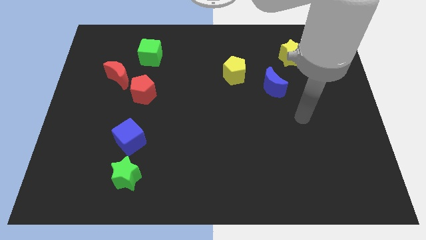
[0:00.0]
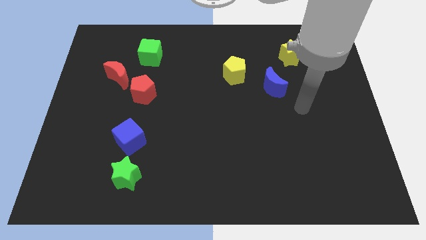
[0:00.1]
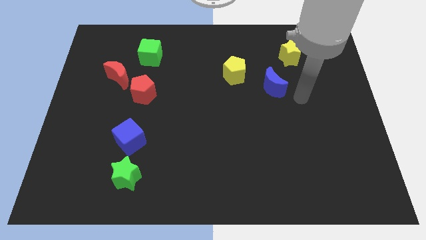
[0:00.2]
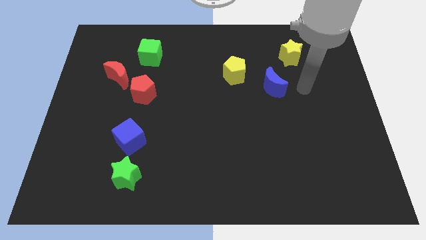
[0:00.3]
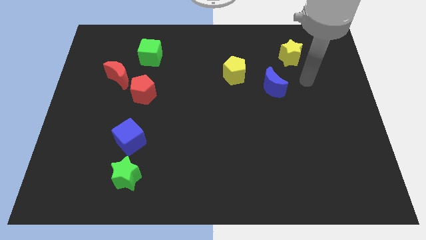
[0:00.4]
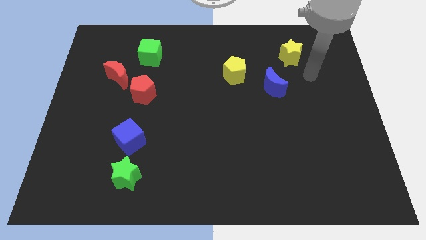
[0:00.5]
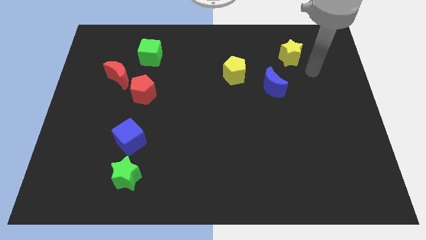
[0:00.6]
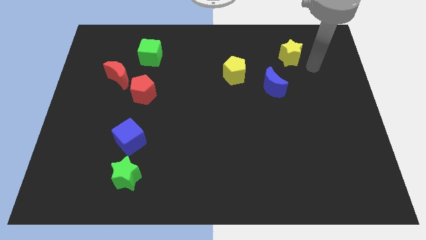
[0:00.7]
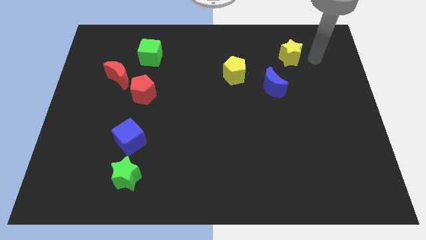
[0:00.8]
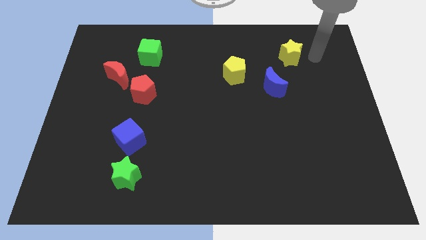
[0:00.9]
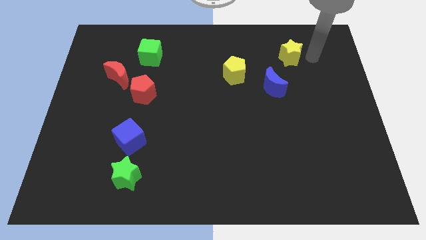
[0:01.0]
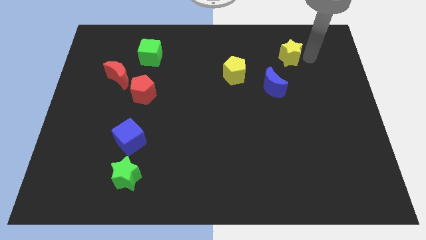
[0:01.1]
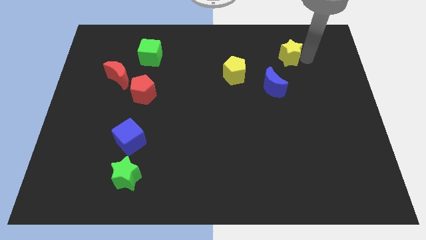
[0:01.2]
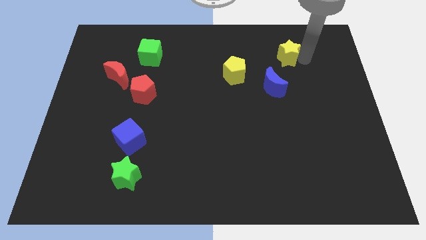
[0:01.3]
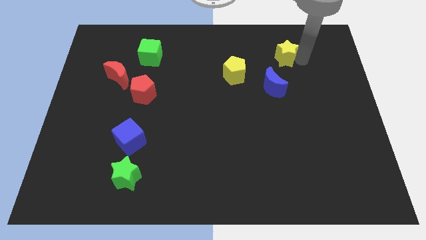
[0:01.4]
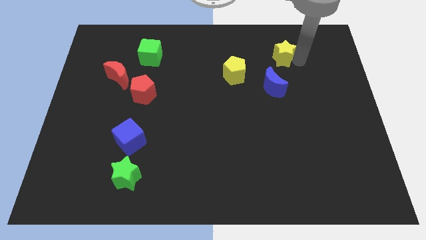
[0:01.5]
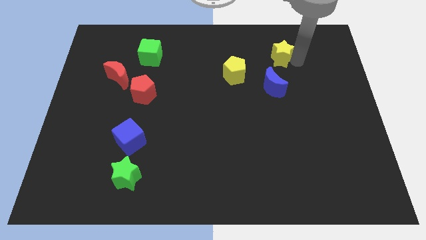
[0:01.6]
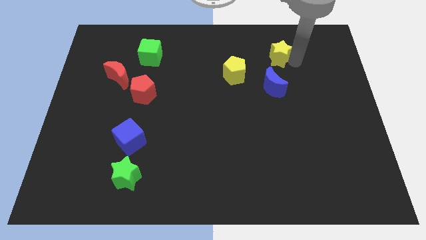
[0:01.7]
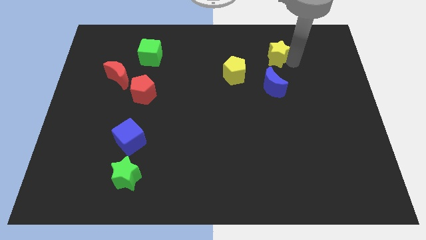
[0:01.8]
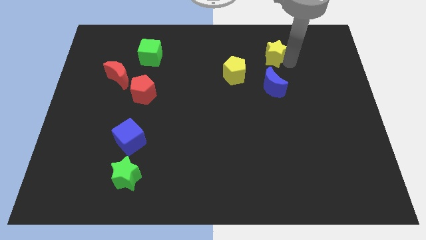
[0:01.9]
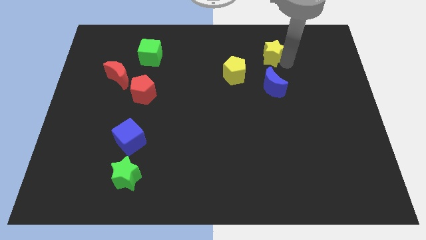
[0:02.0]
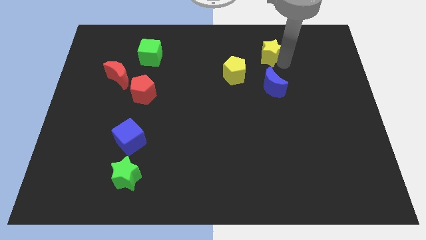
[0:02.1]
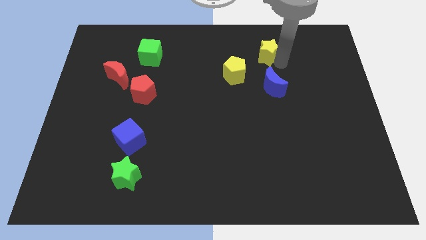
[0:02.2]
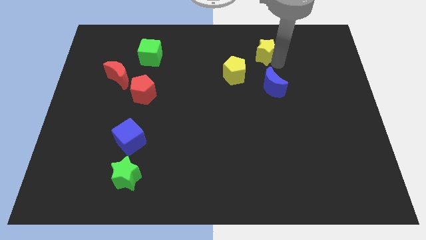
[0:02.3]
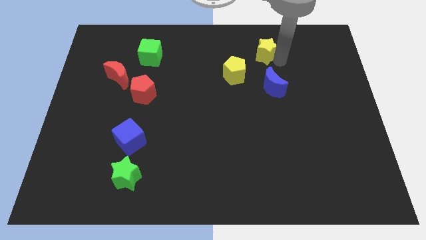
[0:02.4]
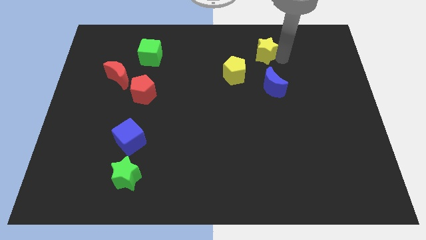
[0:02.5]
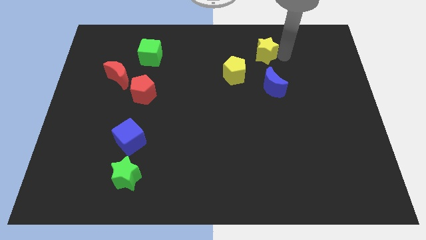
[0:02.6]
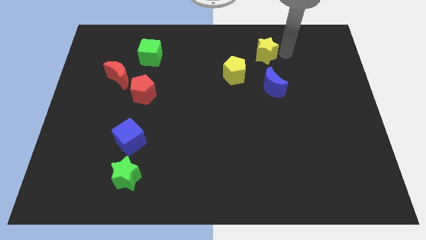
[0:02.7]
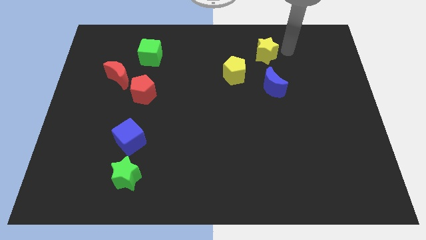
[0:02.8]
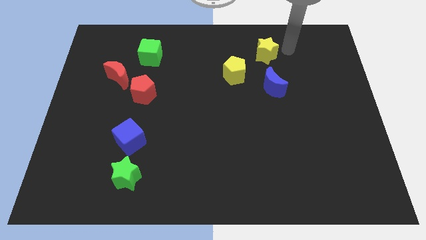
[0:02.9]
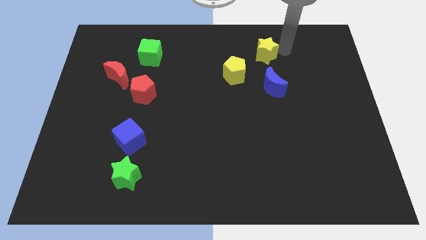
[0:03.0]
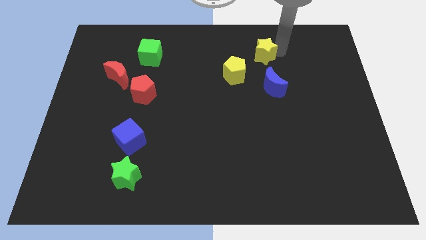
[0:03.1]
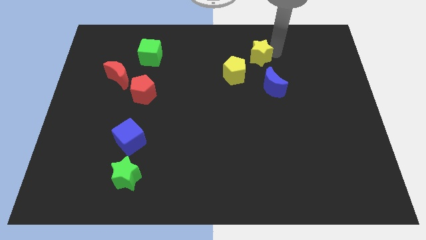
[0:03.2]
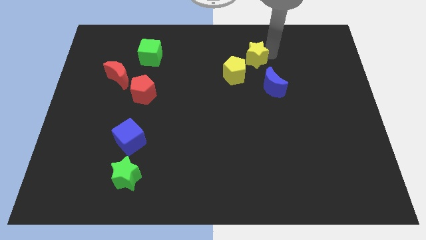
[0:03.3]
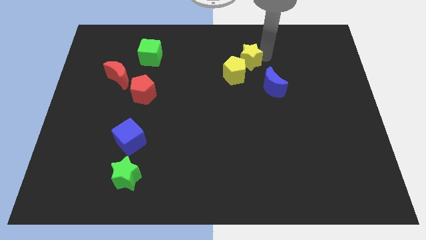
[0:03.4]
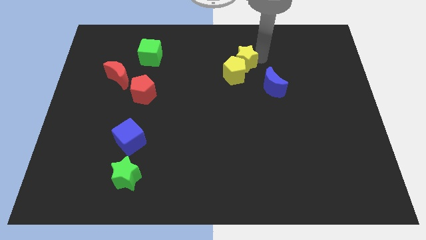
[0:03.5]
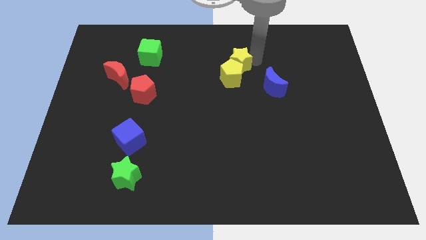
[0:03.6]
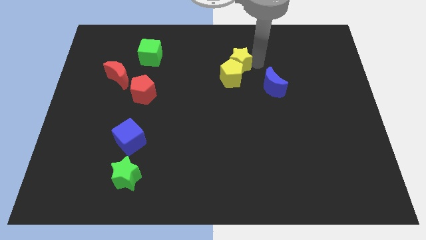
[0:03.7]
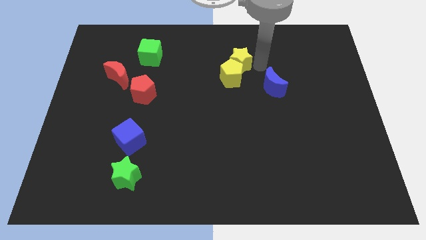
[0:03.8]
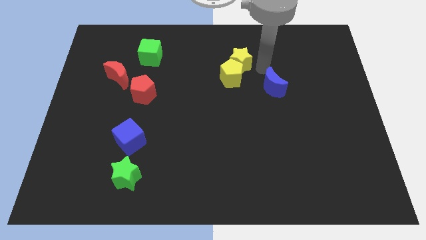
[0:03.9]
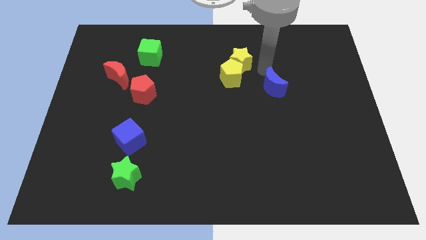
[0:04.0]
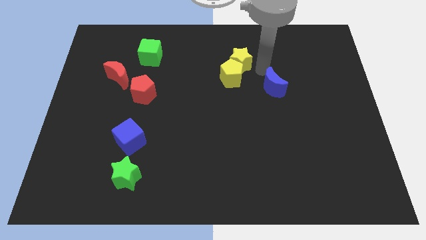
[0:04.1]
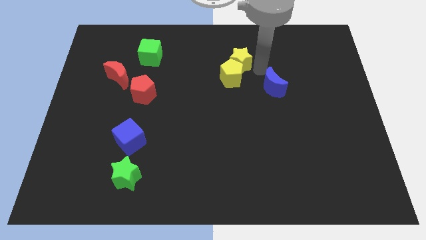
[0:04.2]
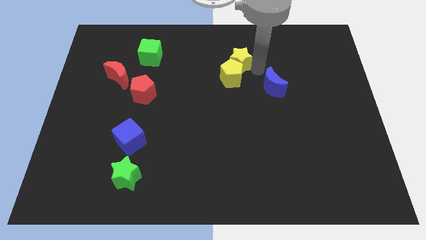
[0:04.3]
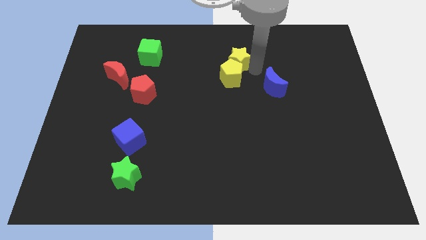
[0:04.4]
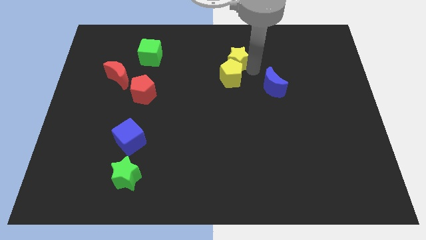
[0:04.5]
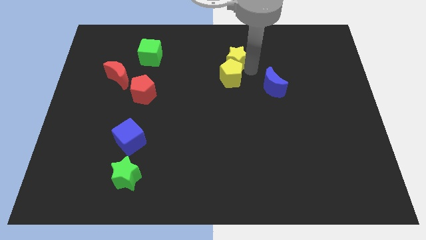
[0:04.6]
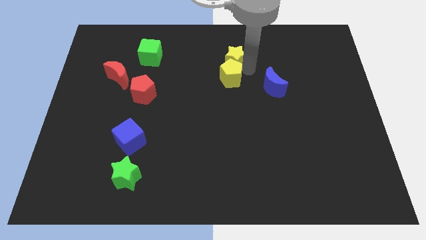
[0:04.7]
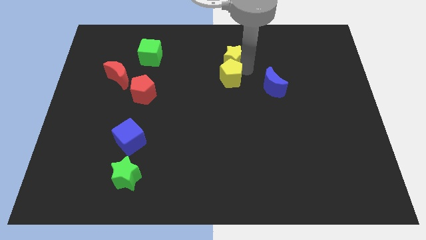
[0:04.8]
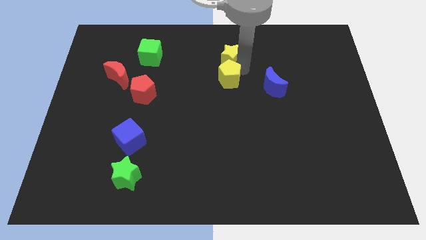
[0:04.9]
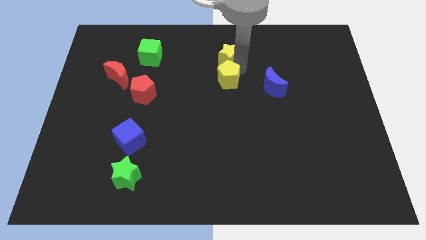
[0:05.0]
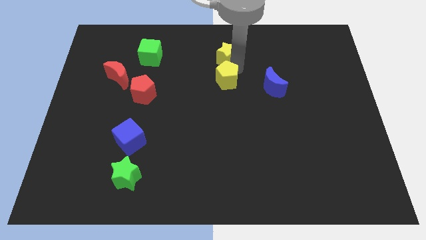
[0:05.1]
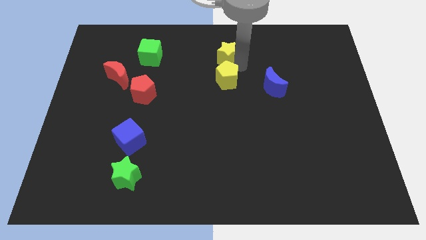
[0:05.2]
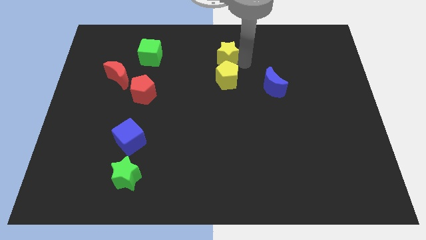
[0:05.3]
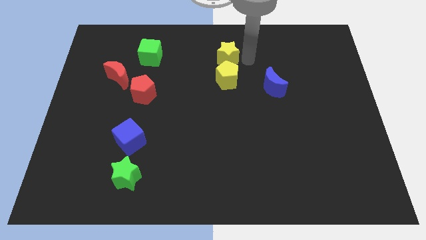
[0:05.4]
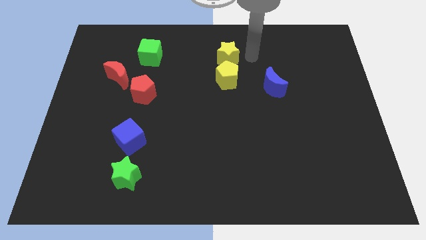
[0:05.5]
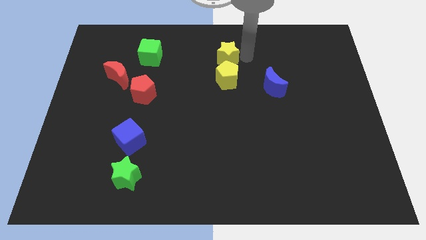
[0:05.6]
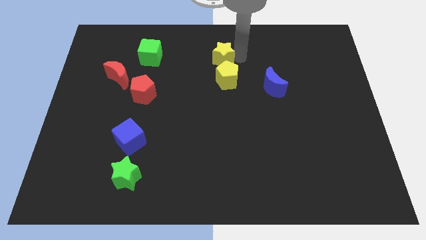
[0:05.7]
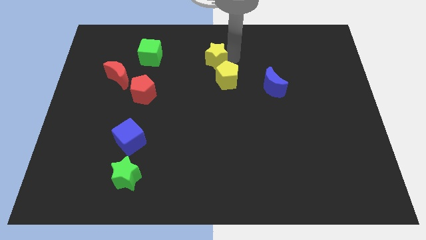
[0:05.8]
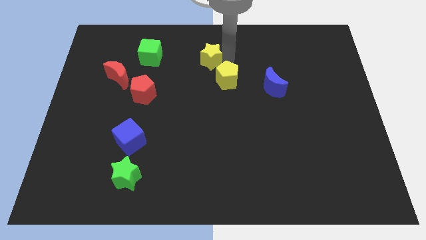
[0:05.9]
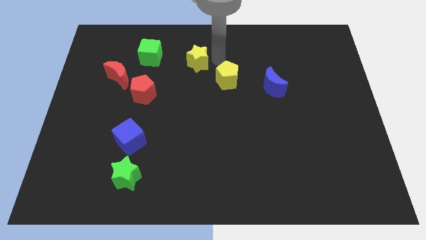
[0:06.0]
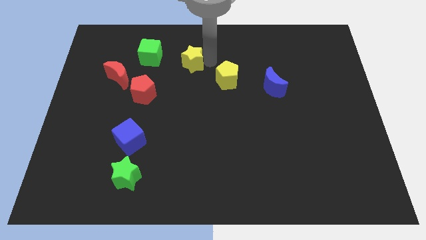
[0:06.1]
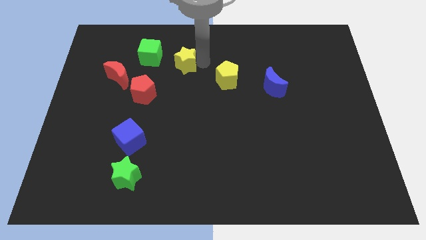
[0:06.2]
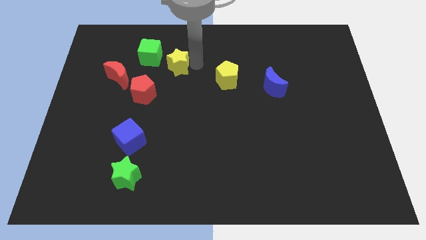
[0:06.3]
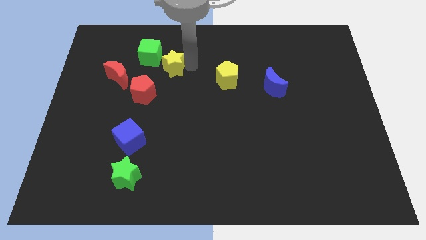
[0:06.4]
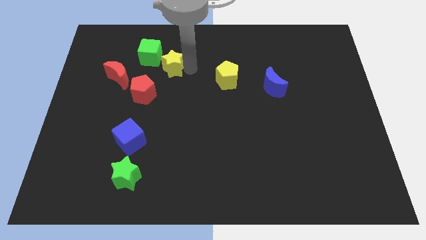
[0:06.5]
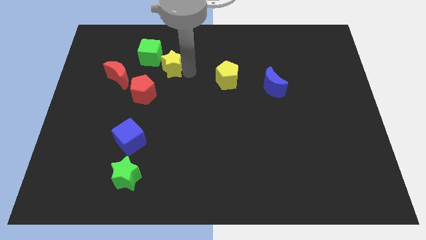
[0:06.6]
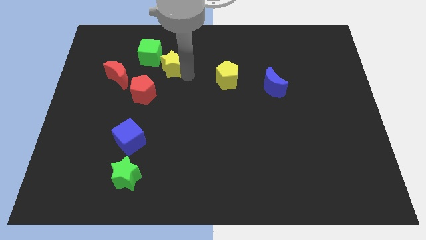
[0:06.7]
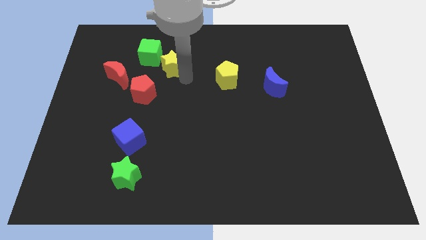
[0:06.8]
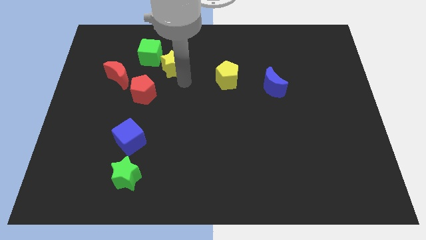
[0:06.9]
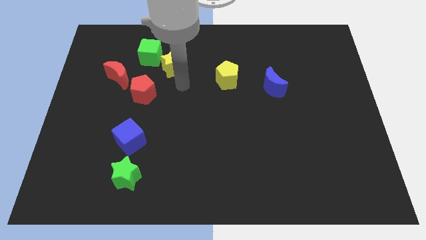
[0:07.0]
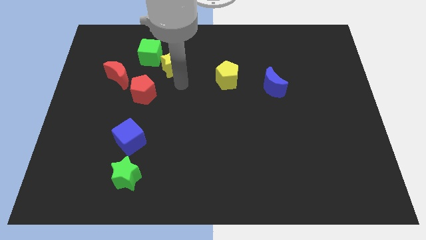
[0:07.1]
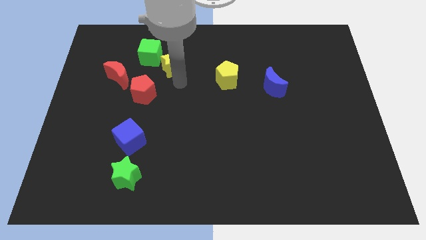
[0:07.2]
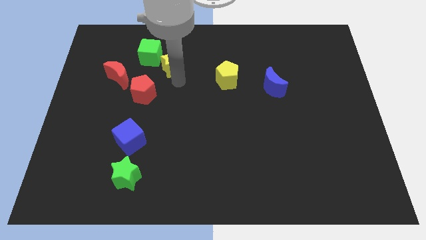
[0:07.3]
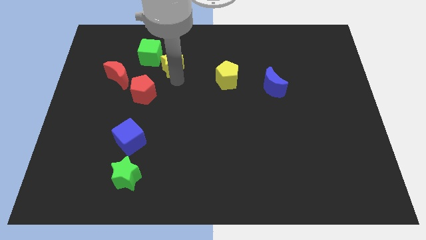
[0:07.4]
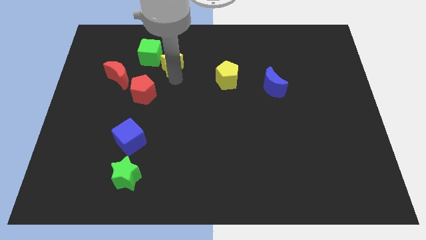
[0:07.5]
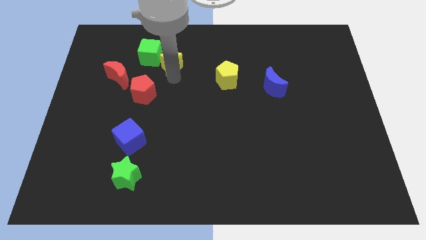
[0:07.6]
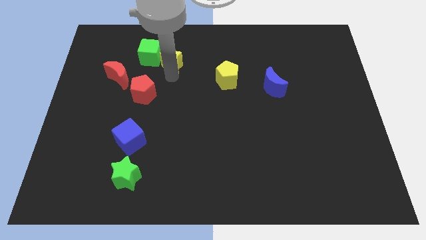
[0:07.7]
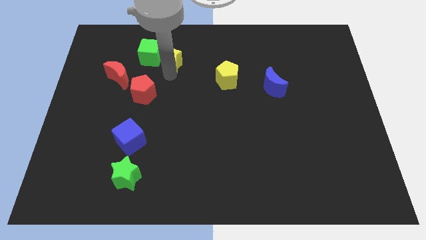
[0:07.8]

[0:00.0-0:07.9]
slide the yellow star close to the green cube
